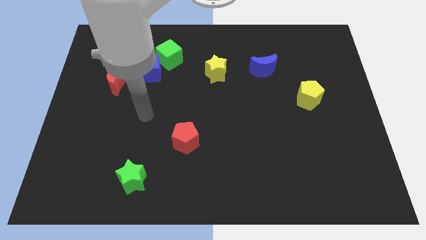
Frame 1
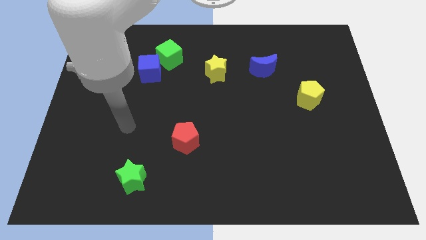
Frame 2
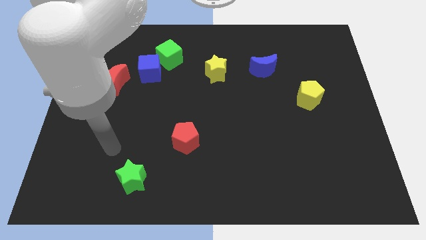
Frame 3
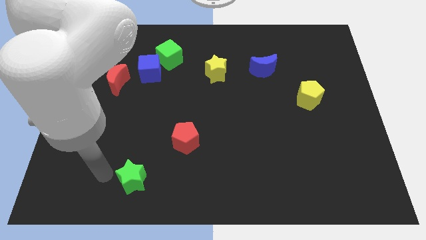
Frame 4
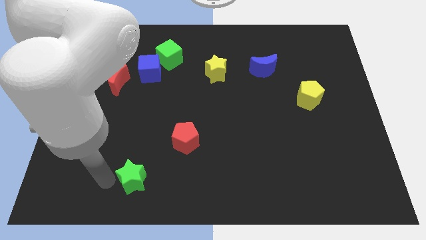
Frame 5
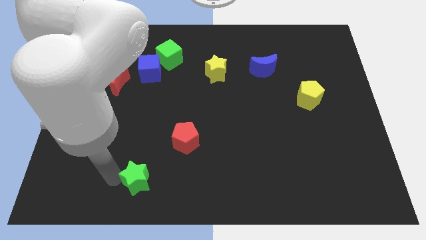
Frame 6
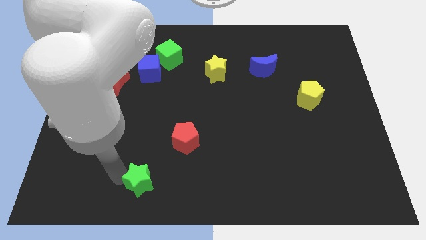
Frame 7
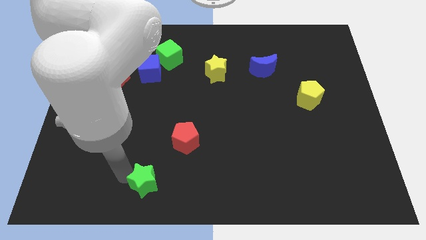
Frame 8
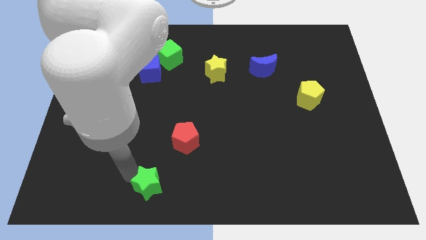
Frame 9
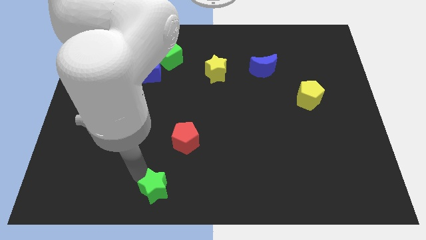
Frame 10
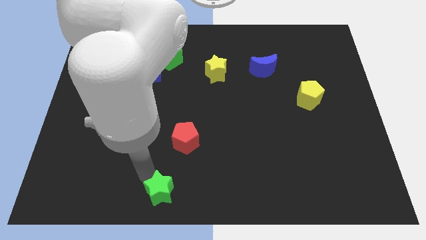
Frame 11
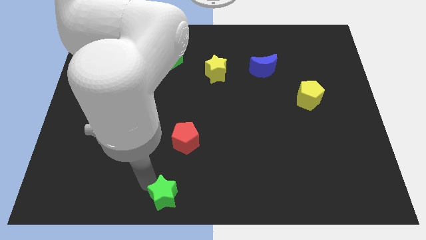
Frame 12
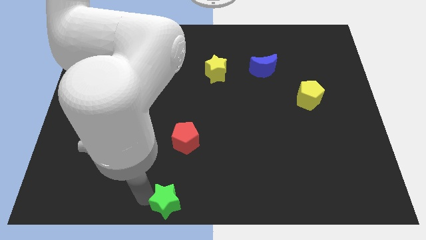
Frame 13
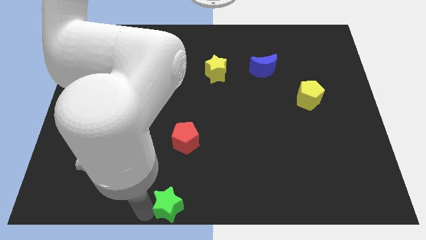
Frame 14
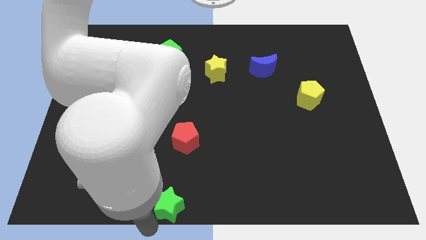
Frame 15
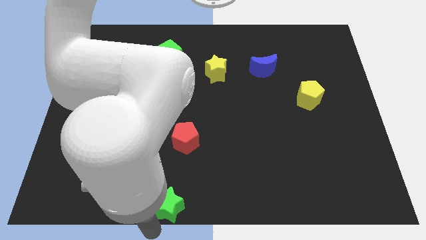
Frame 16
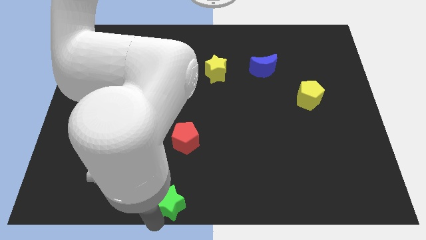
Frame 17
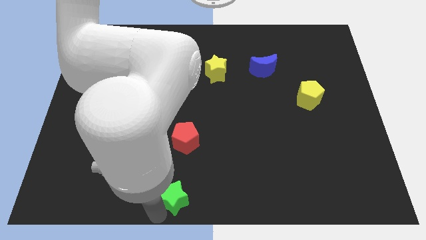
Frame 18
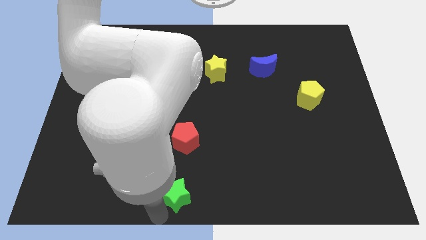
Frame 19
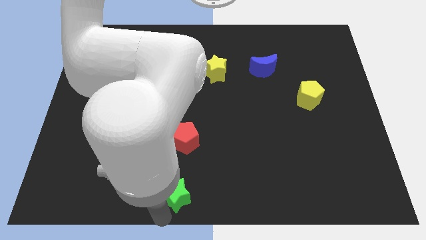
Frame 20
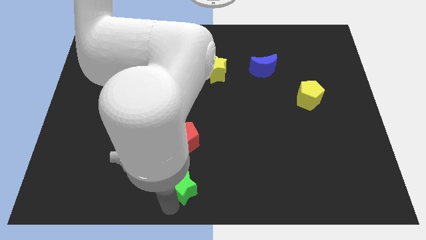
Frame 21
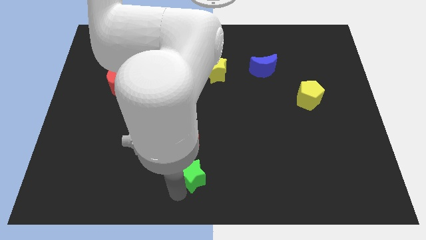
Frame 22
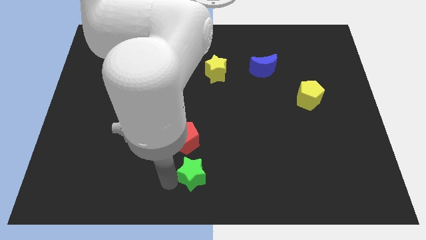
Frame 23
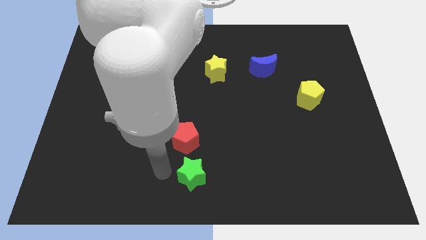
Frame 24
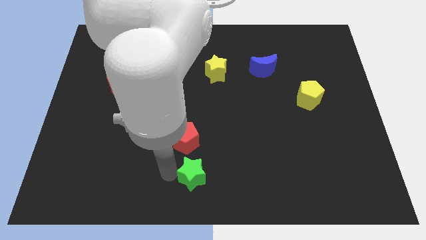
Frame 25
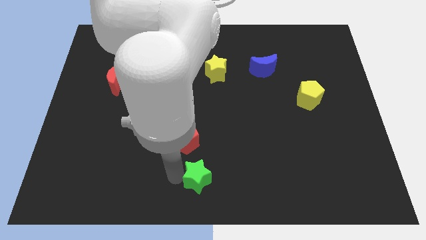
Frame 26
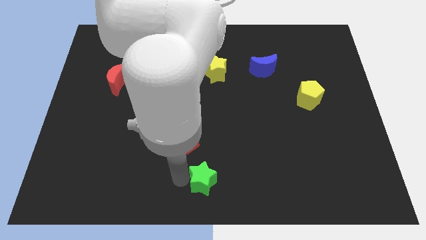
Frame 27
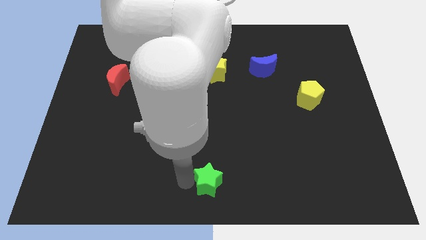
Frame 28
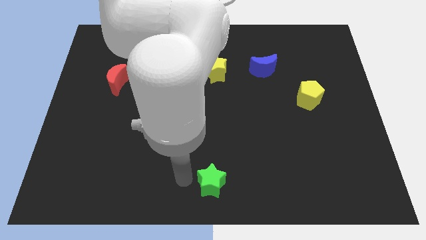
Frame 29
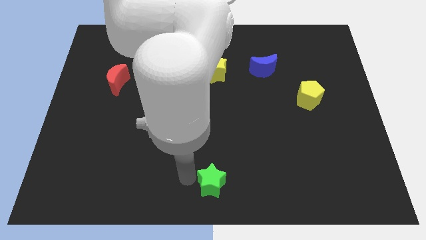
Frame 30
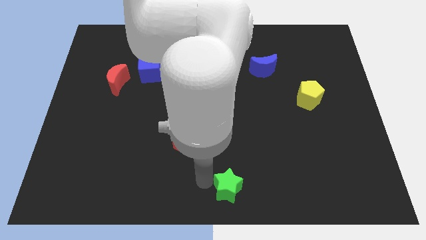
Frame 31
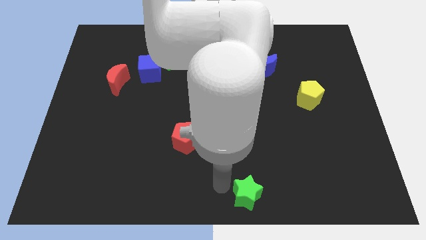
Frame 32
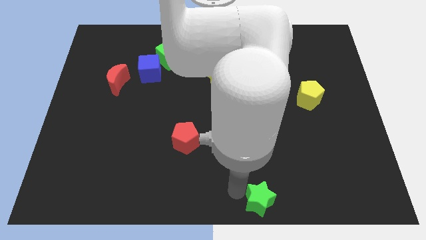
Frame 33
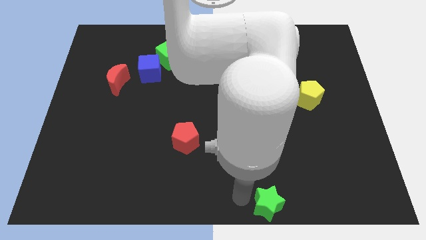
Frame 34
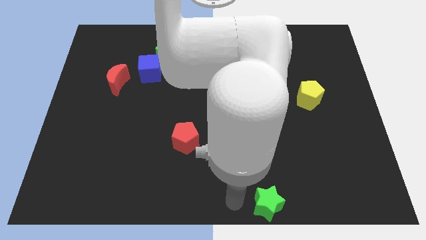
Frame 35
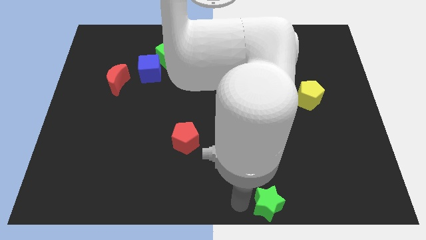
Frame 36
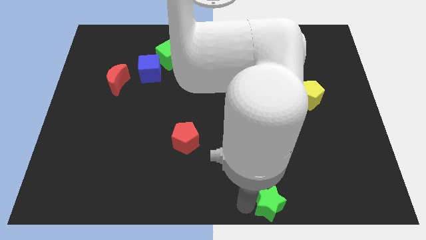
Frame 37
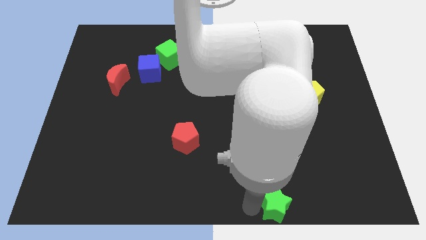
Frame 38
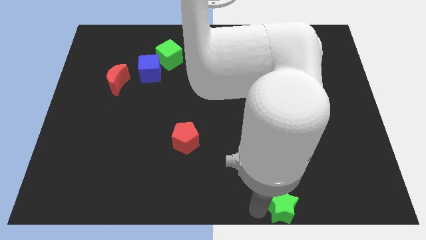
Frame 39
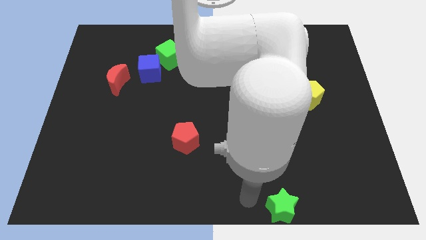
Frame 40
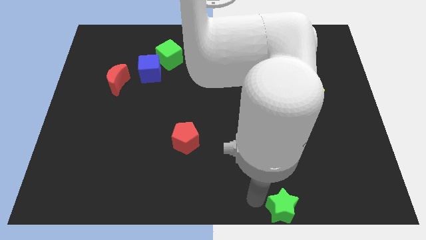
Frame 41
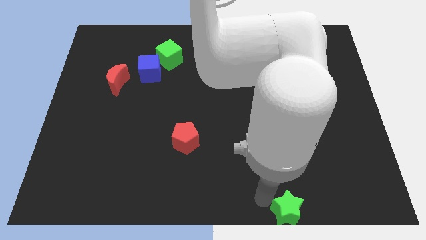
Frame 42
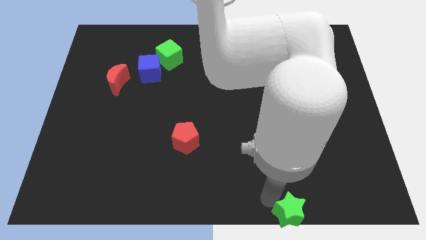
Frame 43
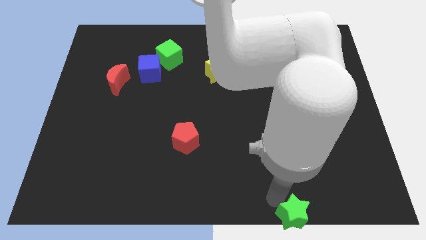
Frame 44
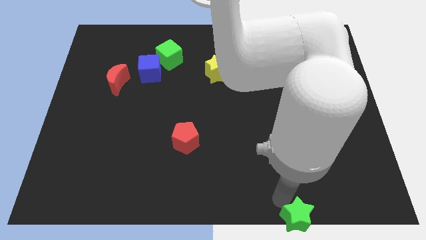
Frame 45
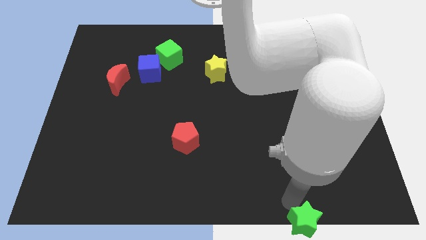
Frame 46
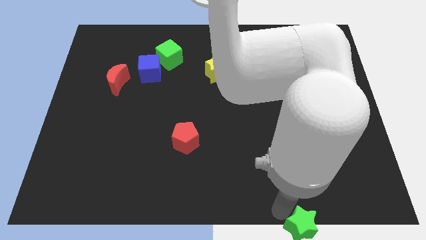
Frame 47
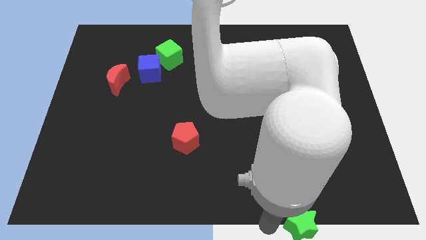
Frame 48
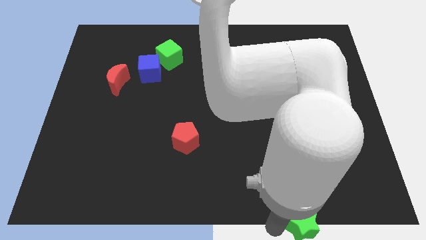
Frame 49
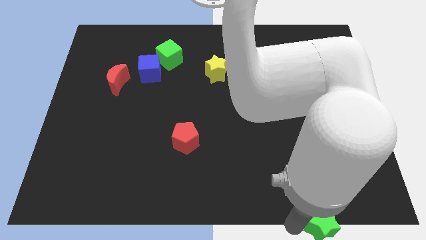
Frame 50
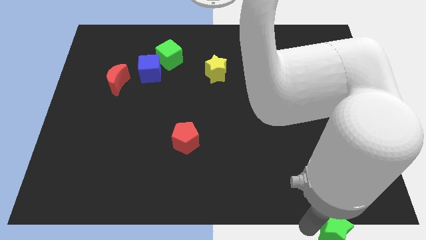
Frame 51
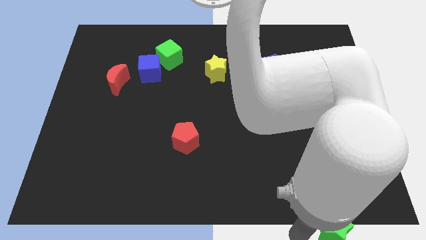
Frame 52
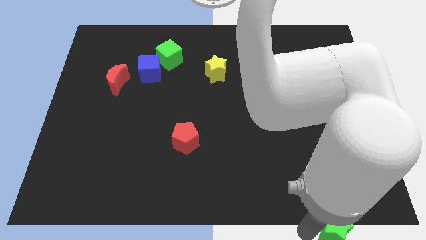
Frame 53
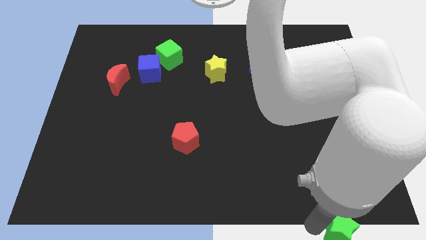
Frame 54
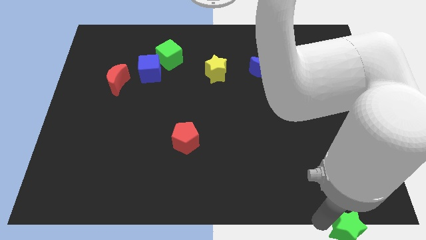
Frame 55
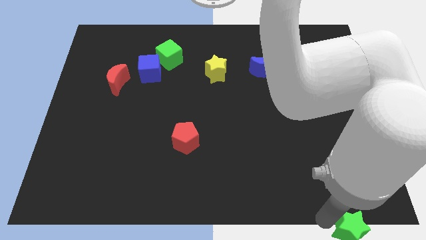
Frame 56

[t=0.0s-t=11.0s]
put the green star to the bottom right of the board
